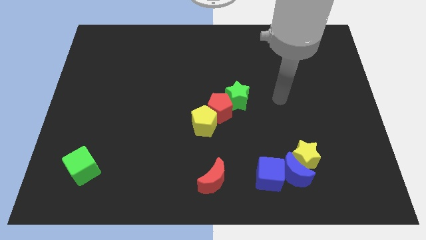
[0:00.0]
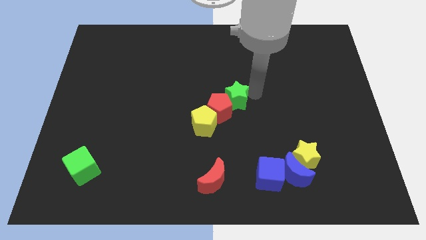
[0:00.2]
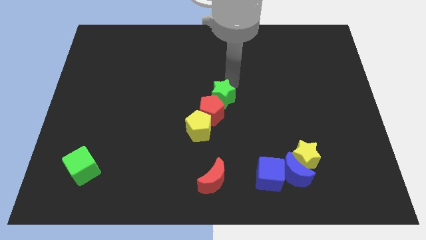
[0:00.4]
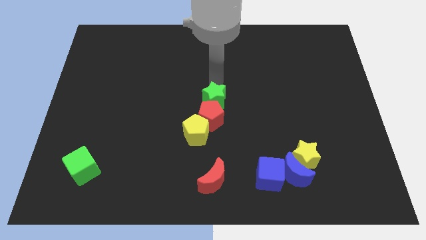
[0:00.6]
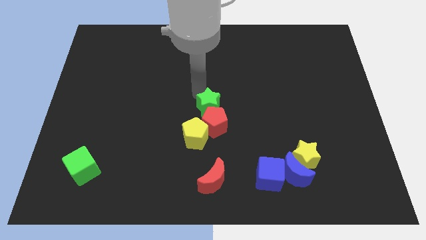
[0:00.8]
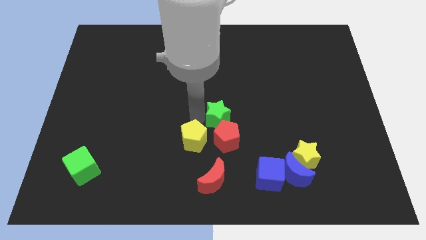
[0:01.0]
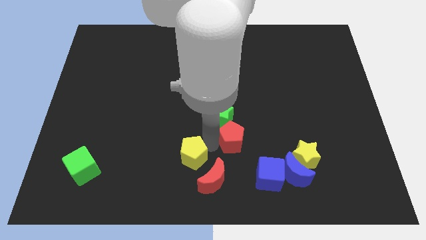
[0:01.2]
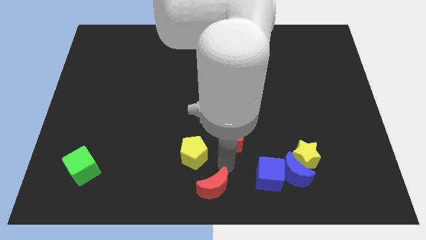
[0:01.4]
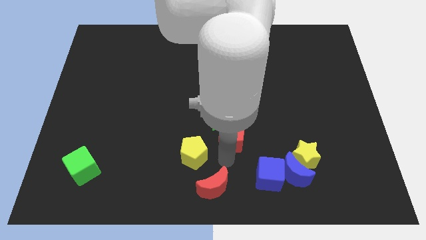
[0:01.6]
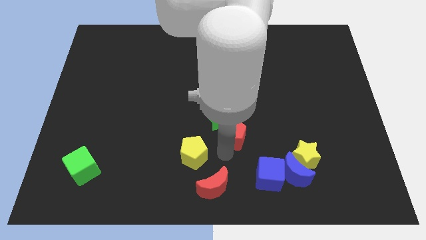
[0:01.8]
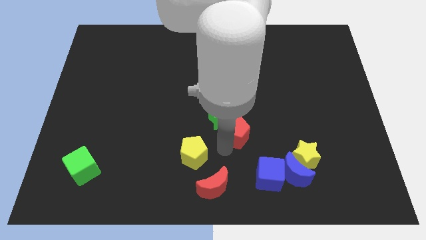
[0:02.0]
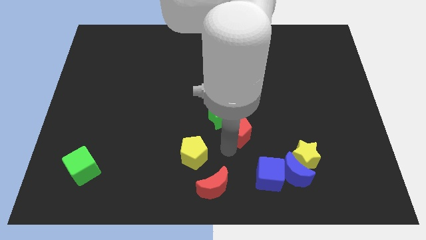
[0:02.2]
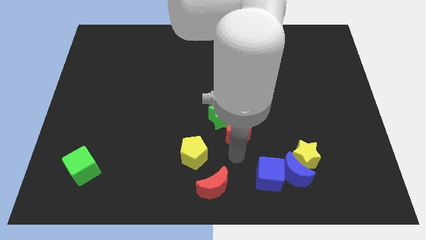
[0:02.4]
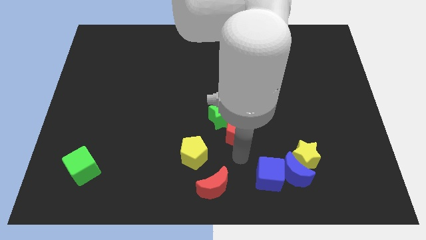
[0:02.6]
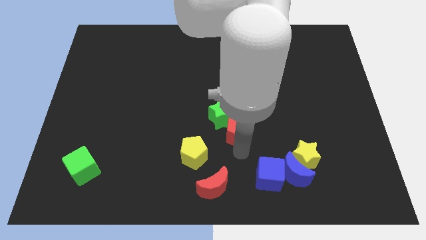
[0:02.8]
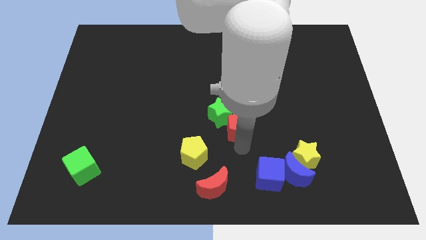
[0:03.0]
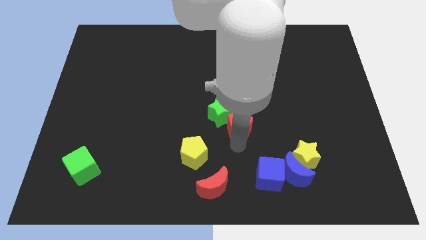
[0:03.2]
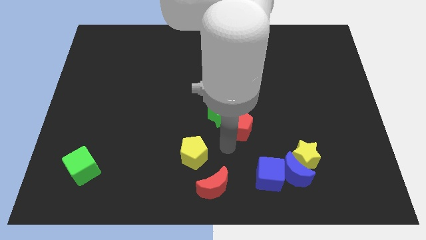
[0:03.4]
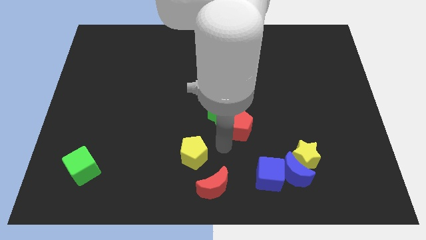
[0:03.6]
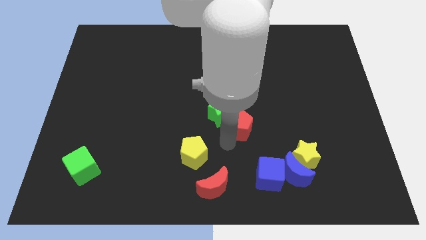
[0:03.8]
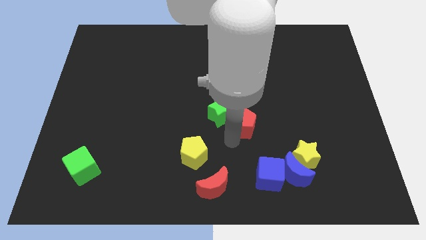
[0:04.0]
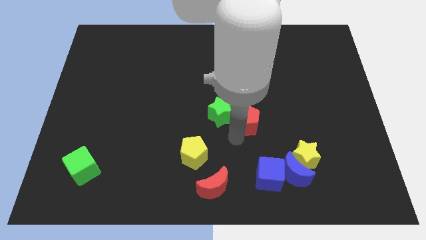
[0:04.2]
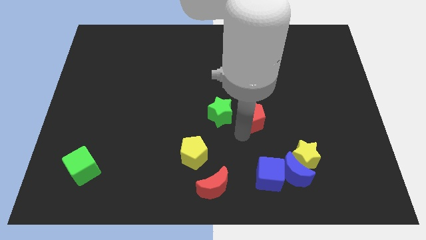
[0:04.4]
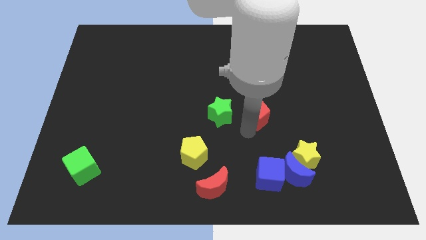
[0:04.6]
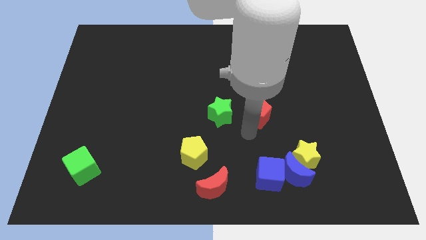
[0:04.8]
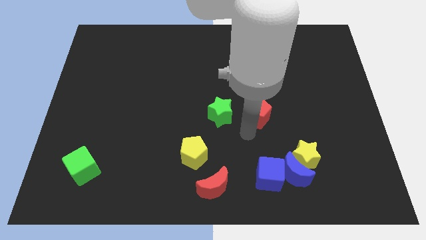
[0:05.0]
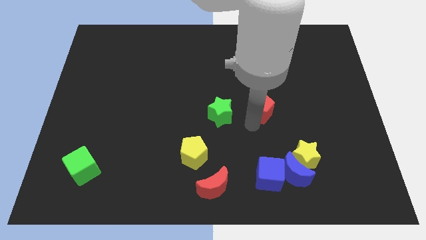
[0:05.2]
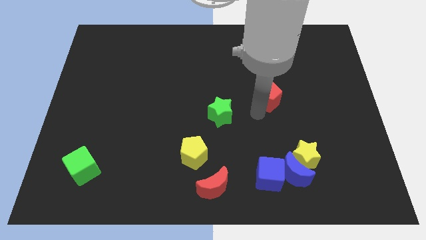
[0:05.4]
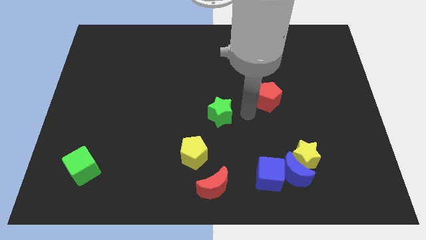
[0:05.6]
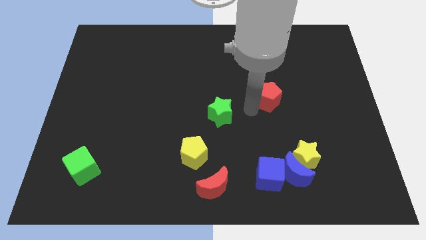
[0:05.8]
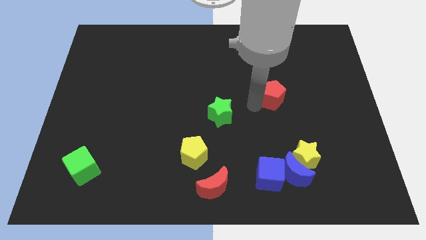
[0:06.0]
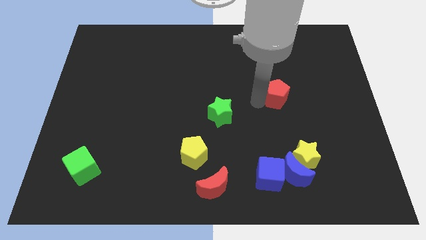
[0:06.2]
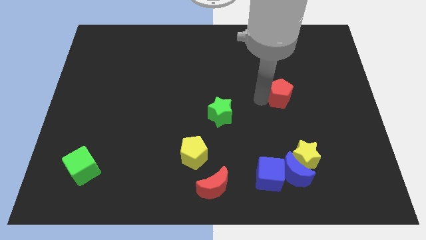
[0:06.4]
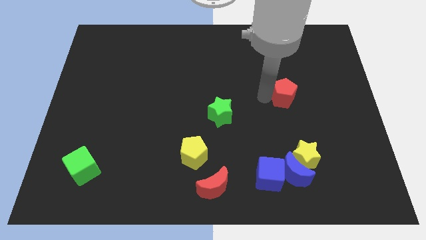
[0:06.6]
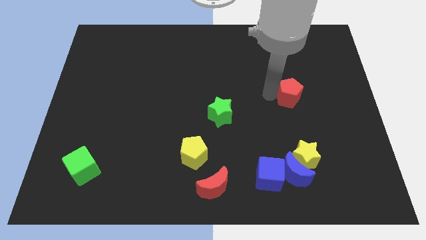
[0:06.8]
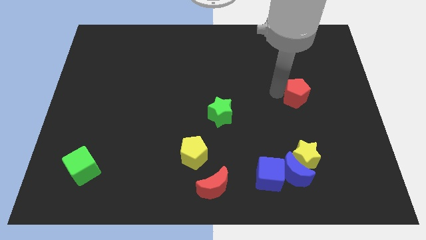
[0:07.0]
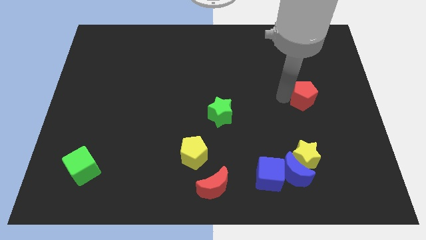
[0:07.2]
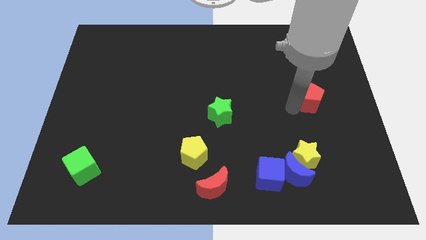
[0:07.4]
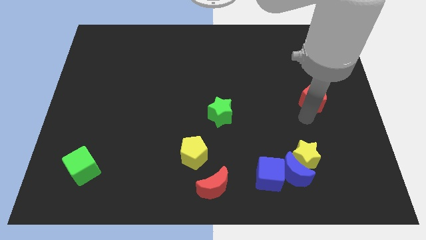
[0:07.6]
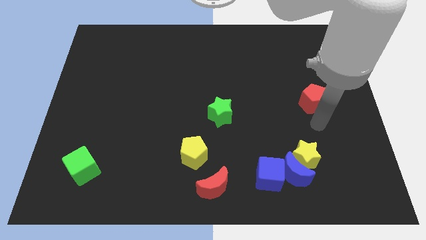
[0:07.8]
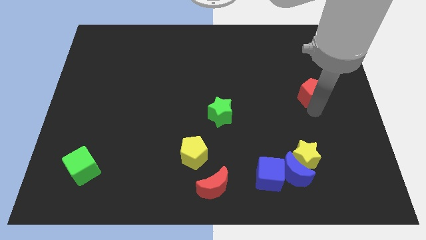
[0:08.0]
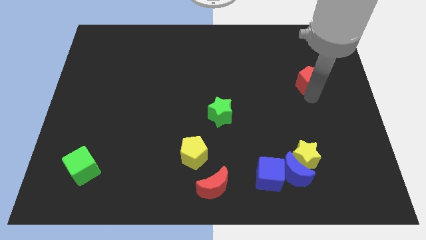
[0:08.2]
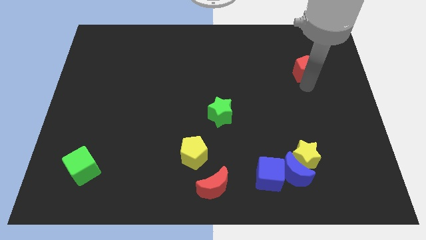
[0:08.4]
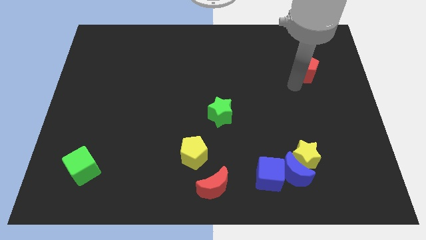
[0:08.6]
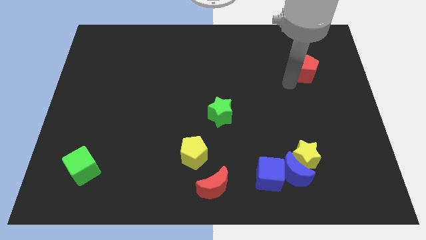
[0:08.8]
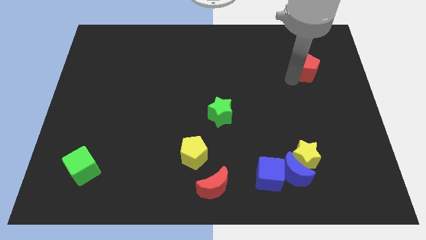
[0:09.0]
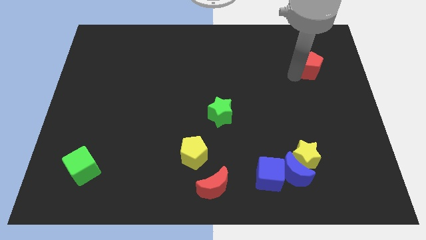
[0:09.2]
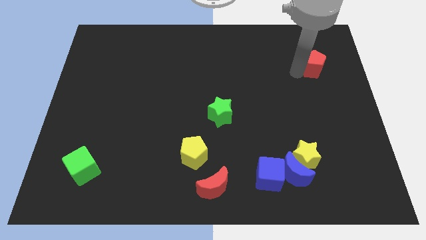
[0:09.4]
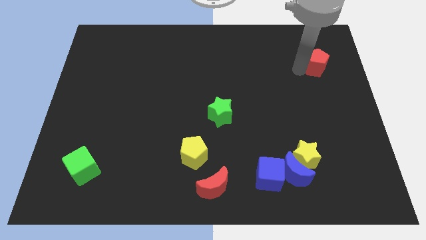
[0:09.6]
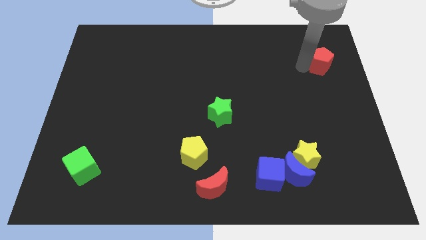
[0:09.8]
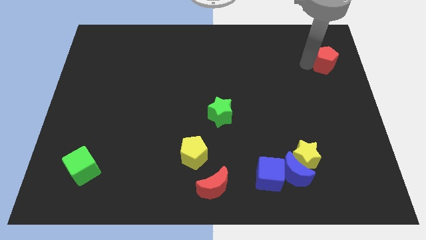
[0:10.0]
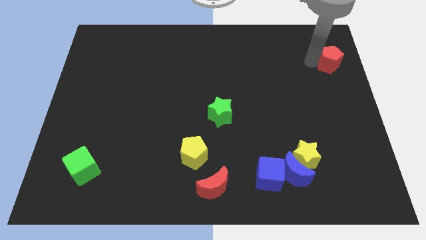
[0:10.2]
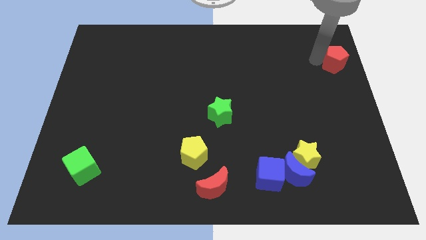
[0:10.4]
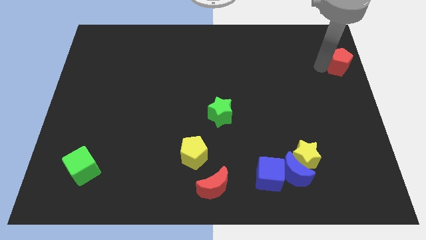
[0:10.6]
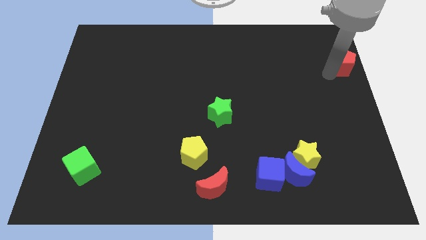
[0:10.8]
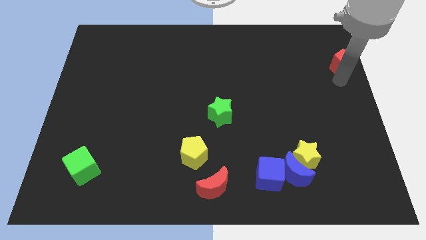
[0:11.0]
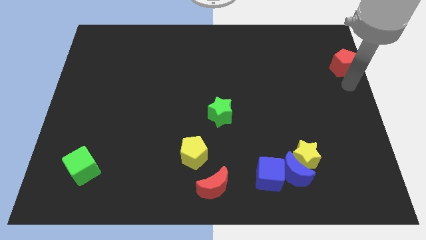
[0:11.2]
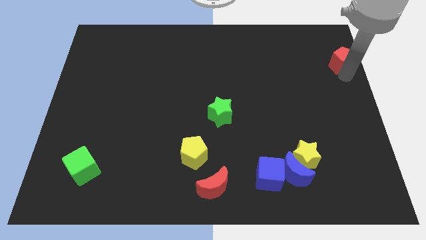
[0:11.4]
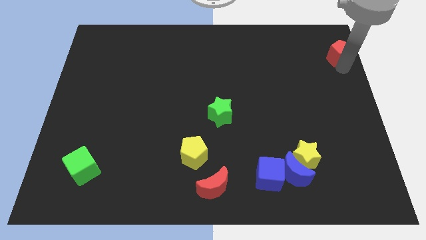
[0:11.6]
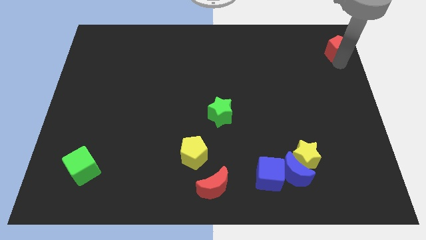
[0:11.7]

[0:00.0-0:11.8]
slide the red pentagon to the upper right corner
